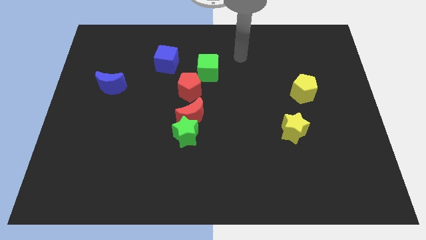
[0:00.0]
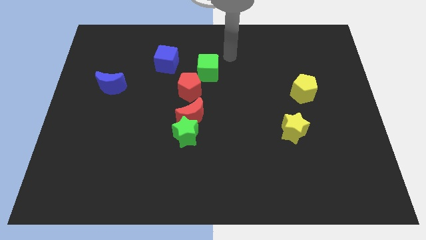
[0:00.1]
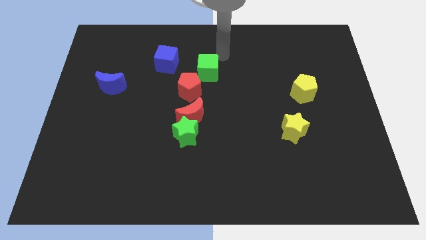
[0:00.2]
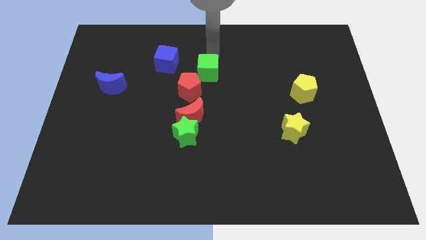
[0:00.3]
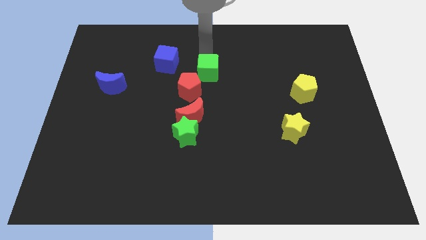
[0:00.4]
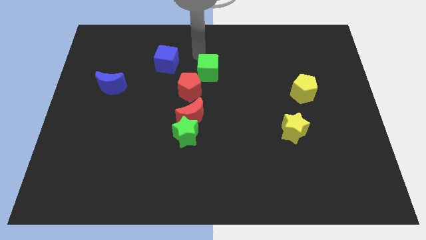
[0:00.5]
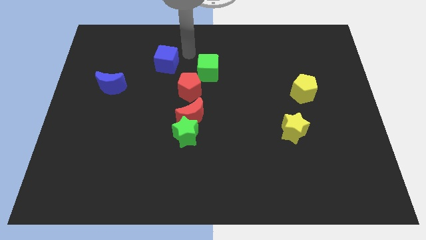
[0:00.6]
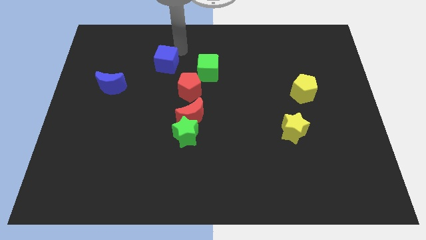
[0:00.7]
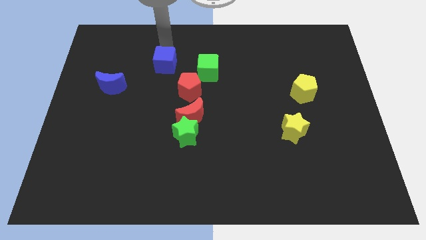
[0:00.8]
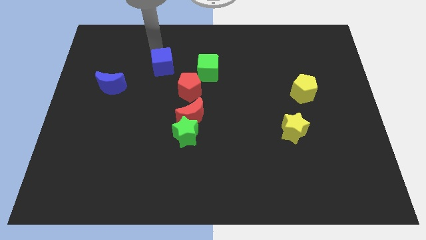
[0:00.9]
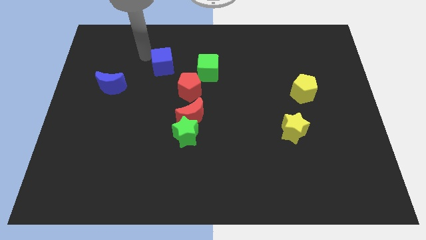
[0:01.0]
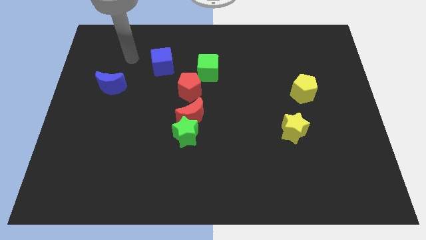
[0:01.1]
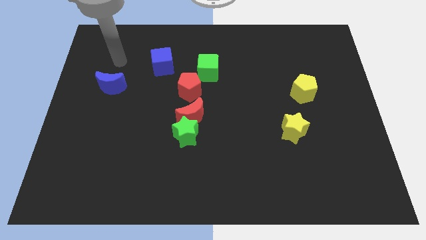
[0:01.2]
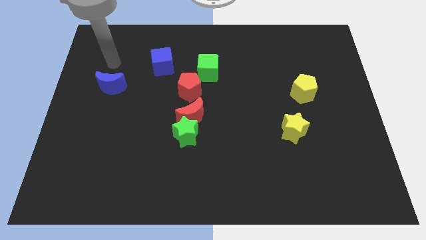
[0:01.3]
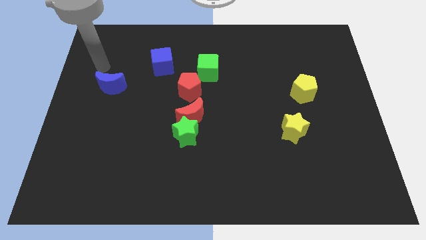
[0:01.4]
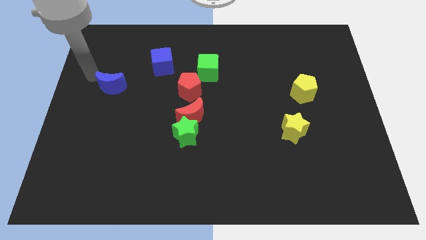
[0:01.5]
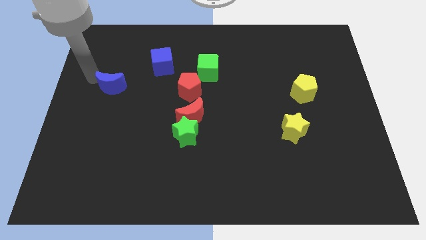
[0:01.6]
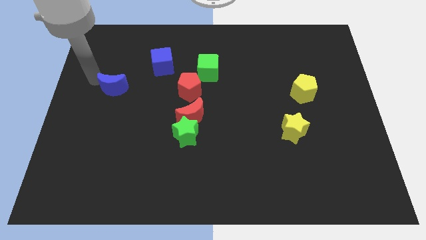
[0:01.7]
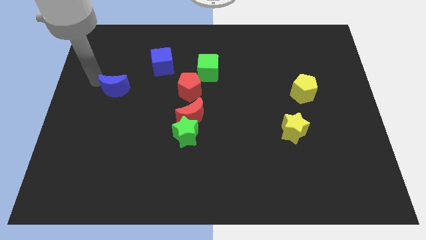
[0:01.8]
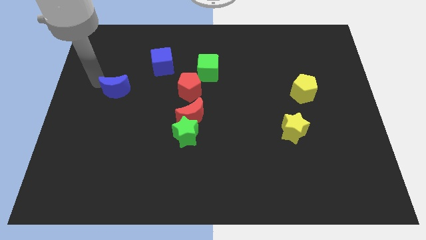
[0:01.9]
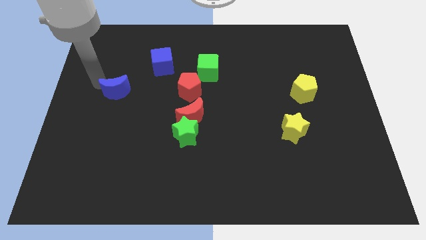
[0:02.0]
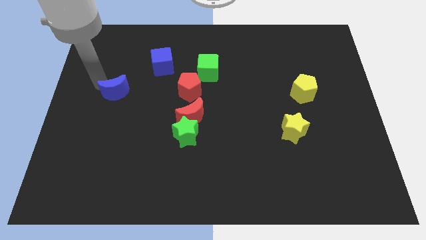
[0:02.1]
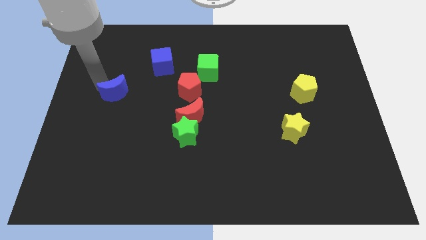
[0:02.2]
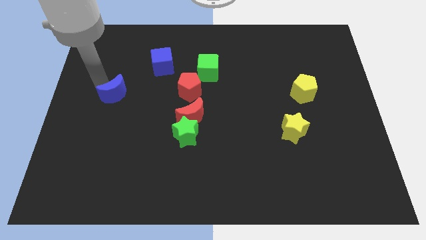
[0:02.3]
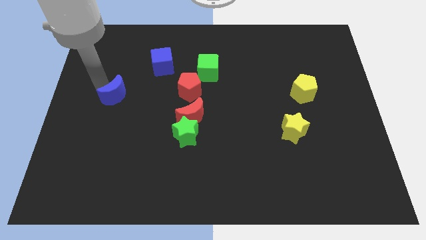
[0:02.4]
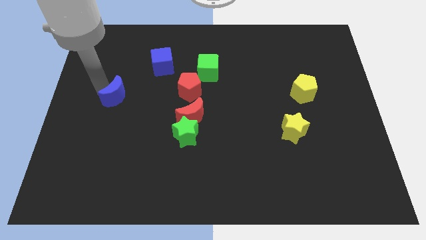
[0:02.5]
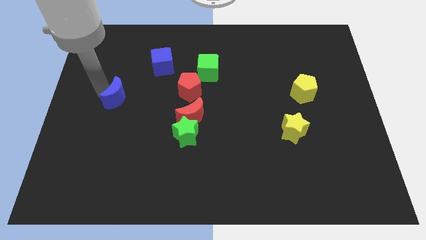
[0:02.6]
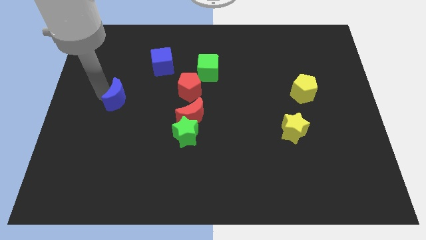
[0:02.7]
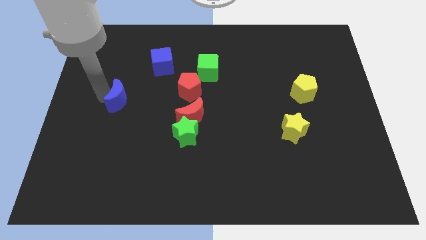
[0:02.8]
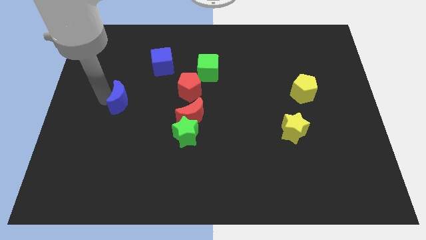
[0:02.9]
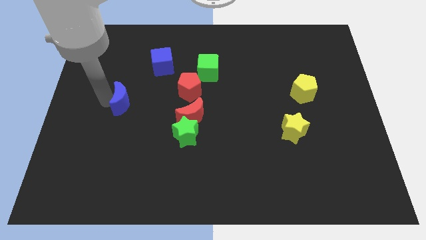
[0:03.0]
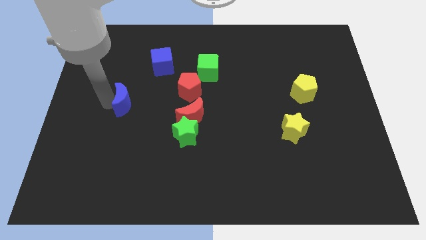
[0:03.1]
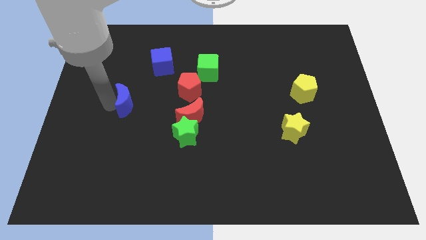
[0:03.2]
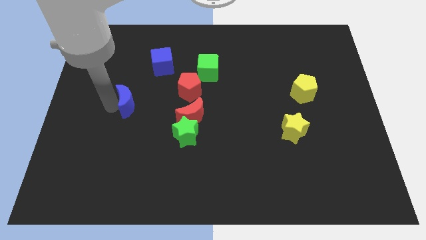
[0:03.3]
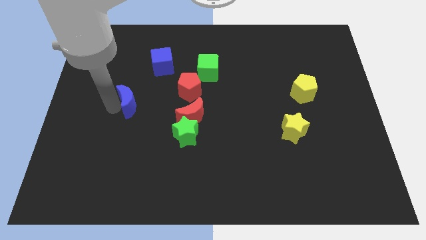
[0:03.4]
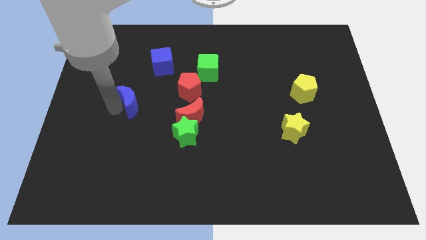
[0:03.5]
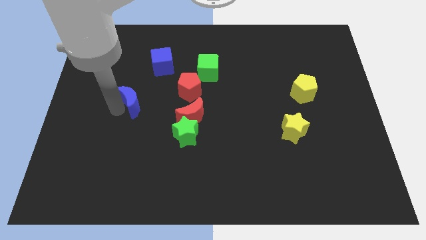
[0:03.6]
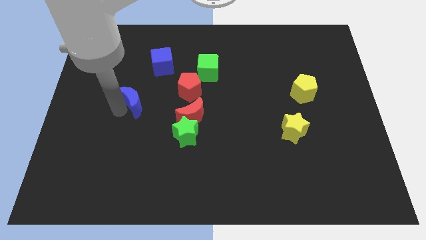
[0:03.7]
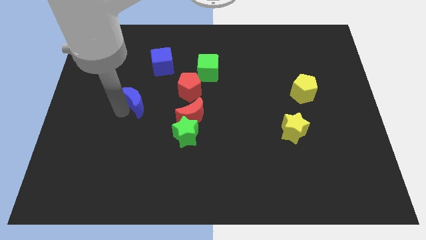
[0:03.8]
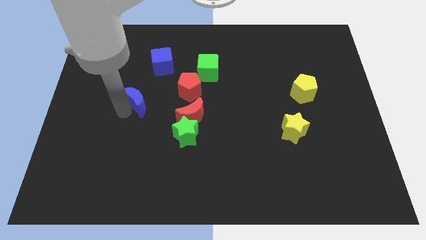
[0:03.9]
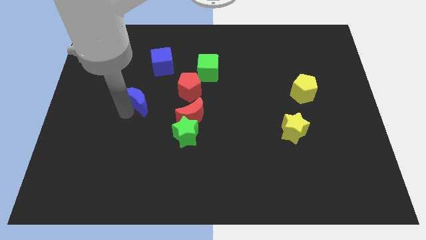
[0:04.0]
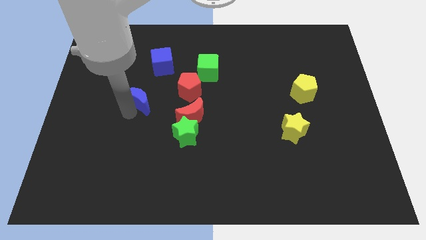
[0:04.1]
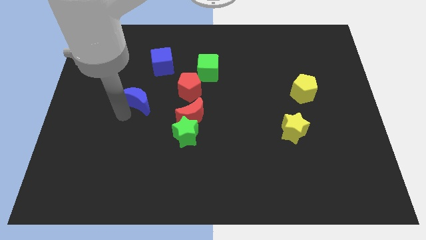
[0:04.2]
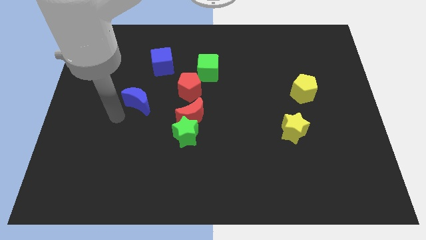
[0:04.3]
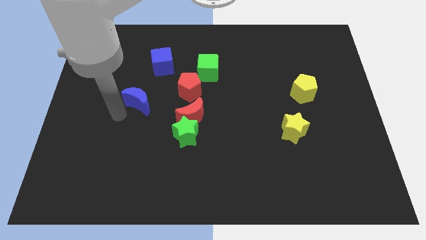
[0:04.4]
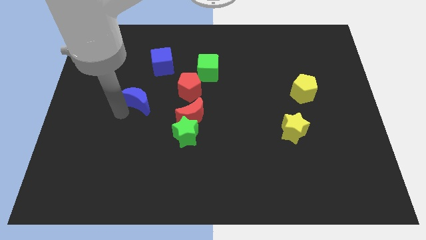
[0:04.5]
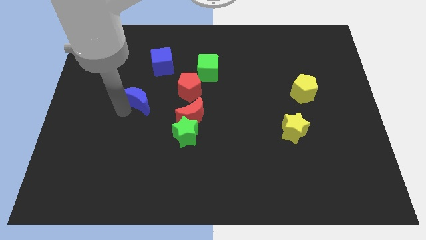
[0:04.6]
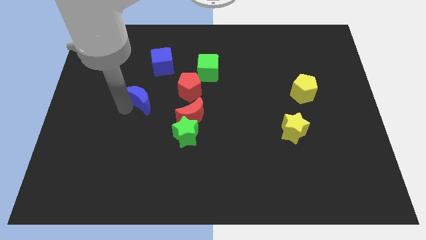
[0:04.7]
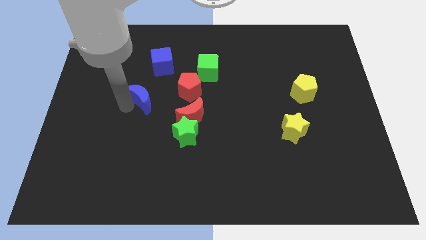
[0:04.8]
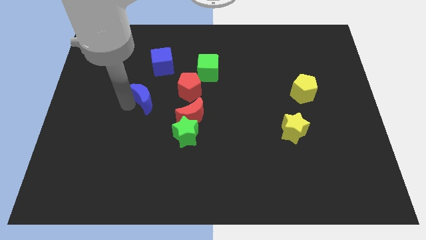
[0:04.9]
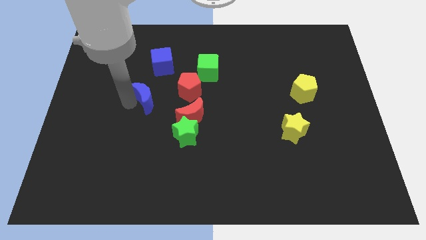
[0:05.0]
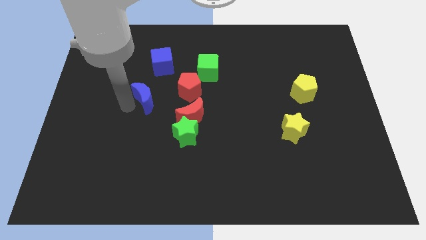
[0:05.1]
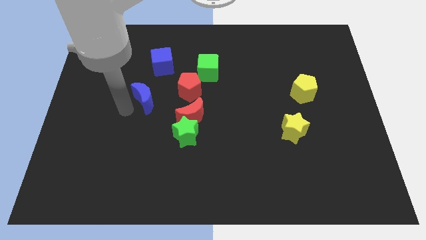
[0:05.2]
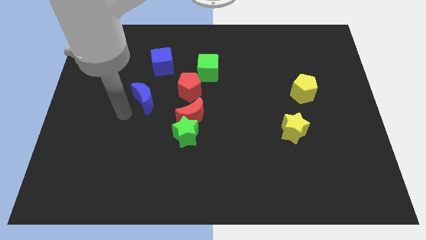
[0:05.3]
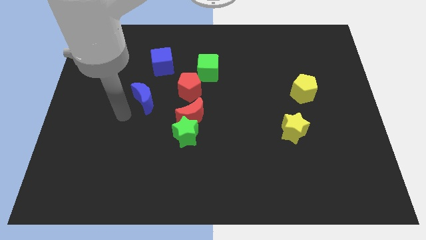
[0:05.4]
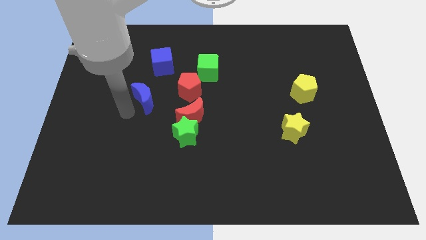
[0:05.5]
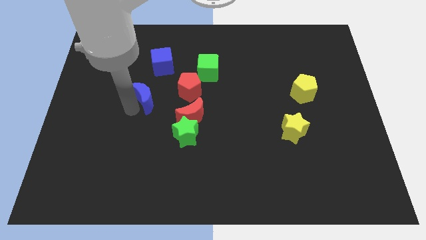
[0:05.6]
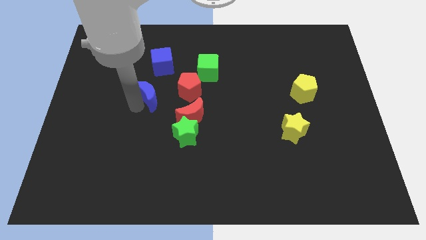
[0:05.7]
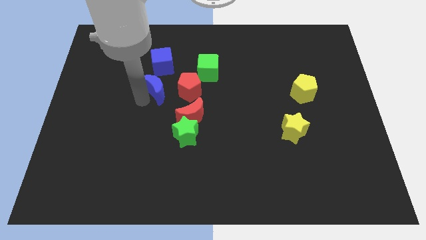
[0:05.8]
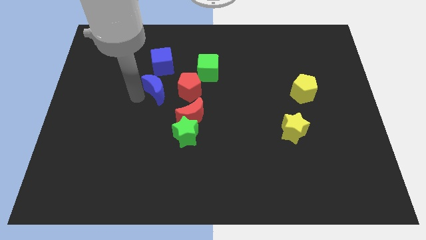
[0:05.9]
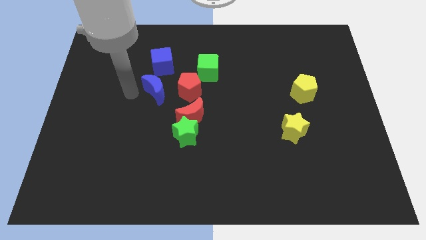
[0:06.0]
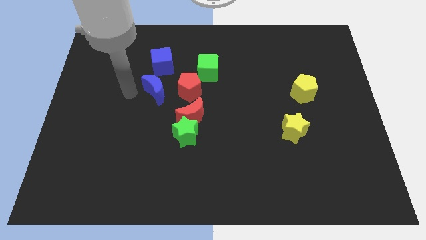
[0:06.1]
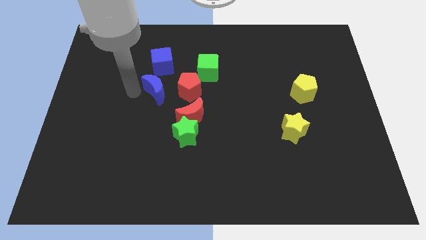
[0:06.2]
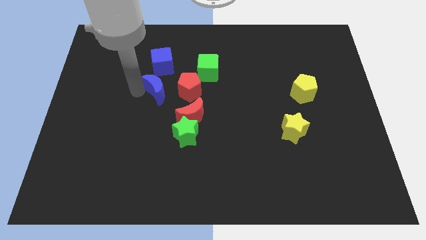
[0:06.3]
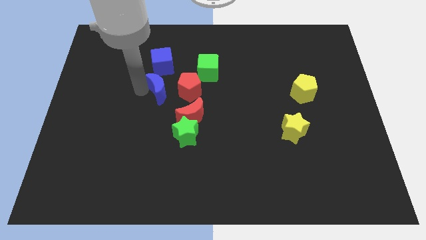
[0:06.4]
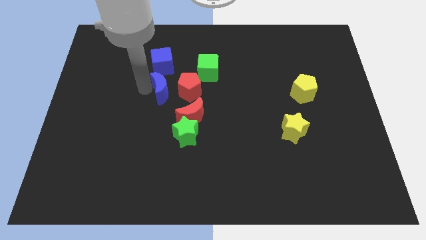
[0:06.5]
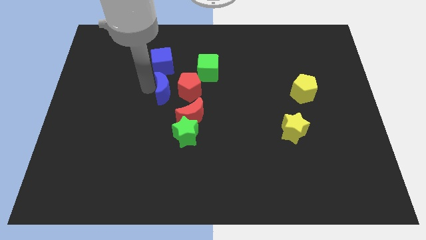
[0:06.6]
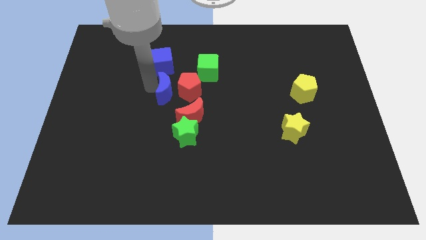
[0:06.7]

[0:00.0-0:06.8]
slide the blue moon to the red pentagon

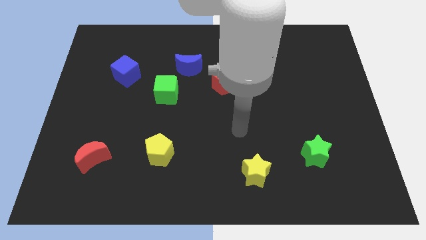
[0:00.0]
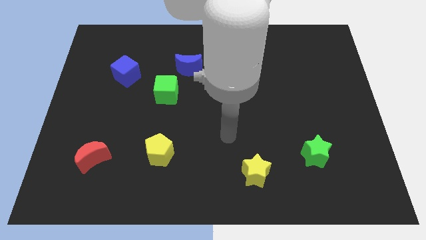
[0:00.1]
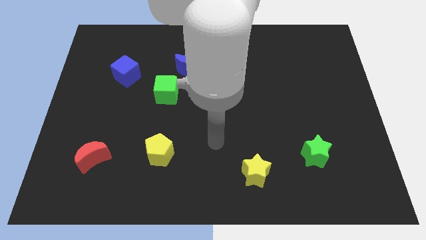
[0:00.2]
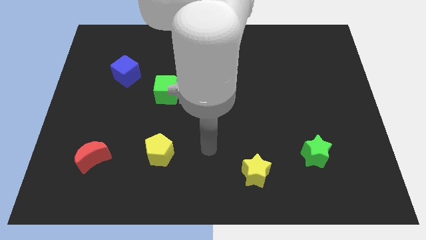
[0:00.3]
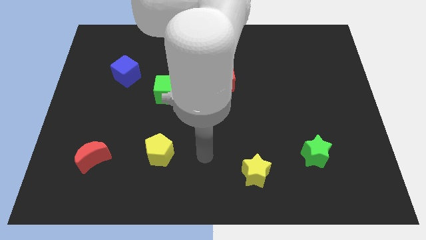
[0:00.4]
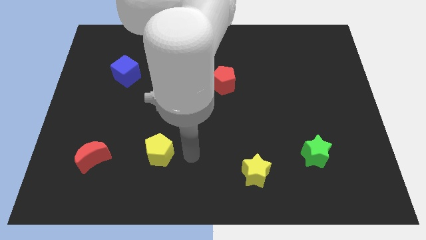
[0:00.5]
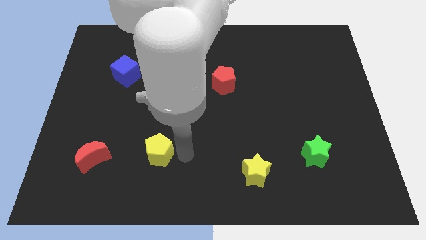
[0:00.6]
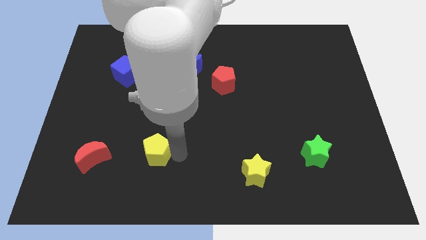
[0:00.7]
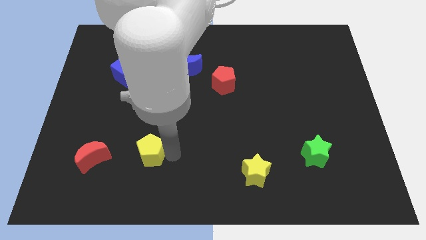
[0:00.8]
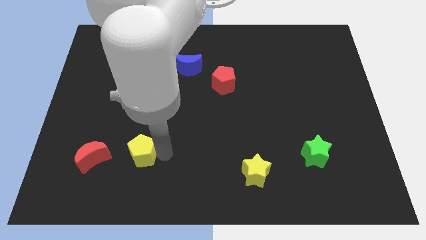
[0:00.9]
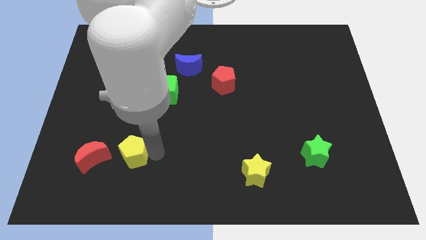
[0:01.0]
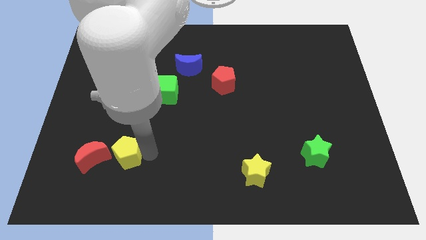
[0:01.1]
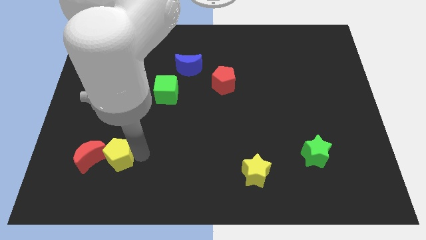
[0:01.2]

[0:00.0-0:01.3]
move the yellow pentagon close to the red moon
